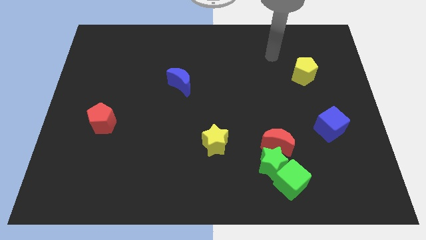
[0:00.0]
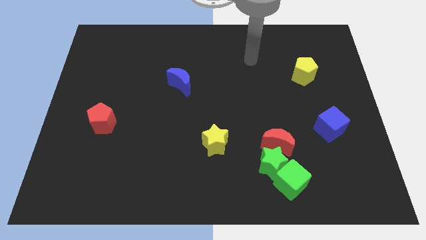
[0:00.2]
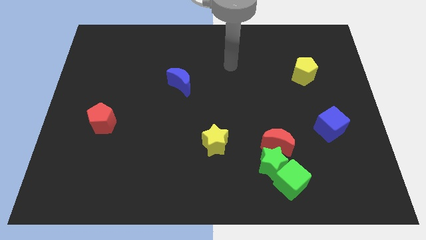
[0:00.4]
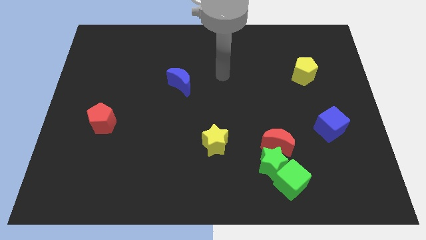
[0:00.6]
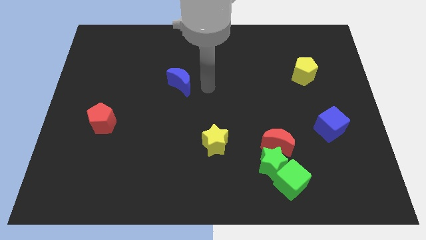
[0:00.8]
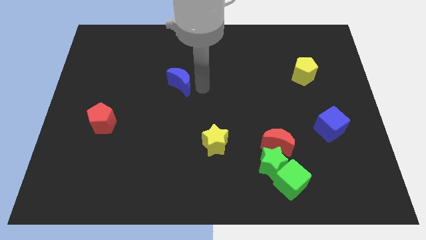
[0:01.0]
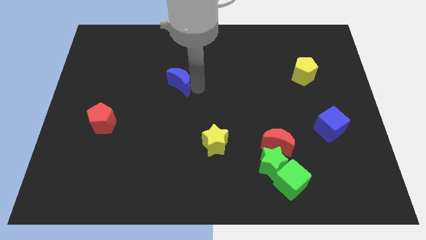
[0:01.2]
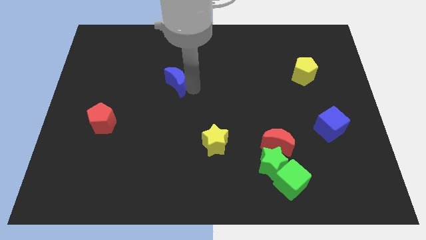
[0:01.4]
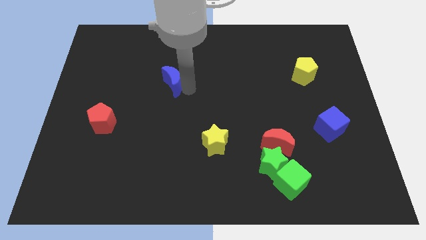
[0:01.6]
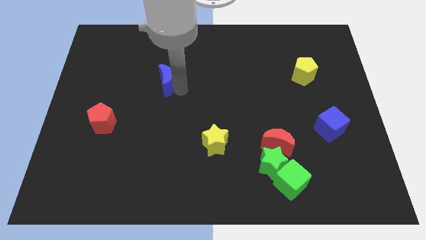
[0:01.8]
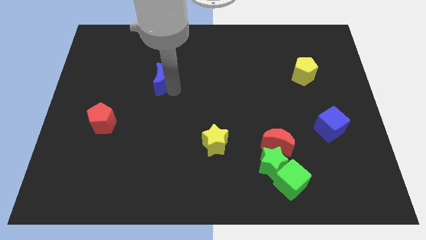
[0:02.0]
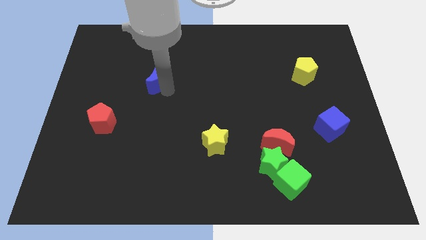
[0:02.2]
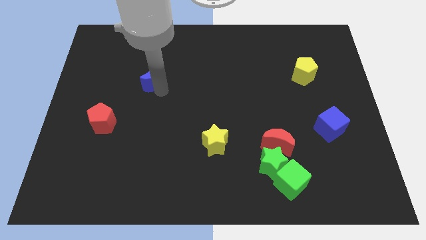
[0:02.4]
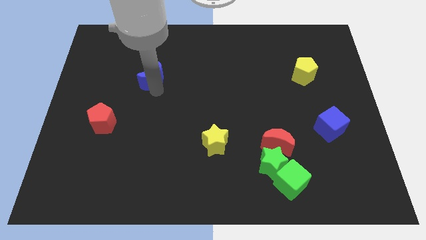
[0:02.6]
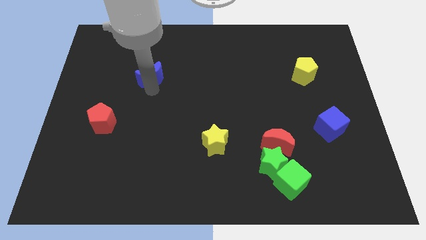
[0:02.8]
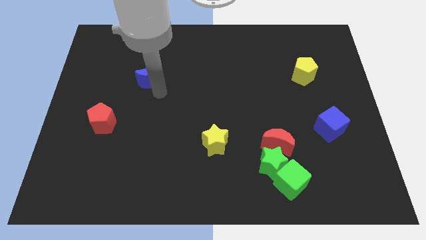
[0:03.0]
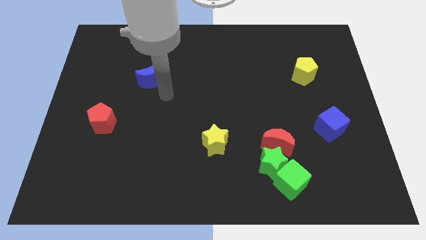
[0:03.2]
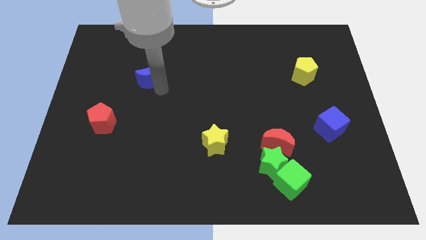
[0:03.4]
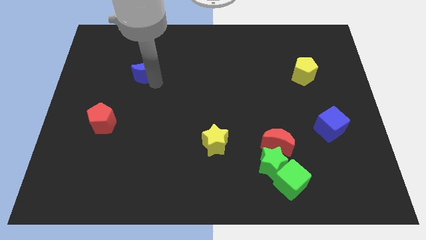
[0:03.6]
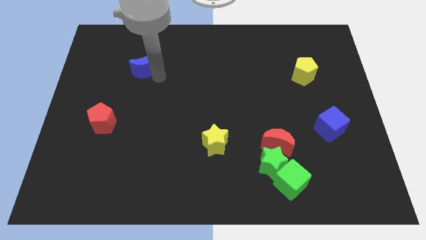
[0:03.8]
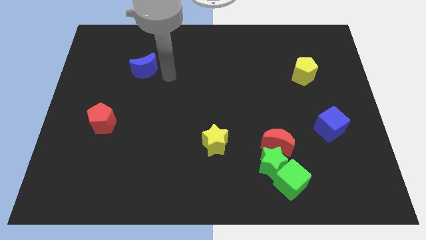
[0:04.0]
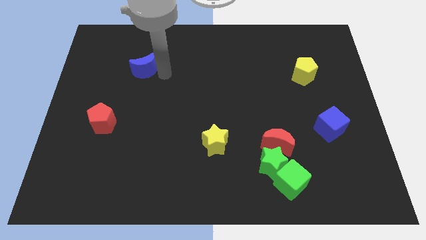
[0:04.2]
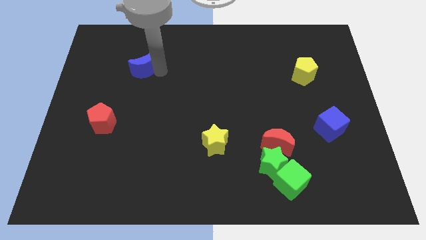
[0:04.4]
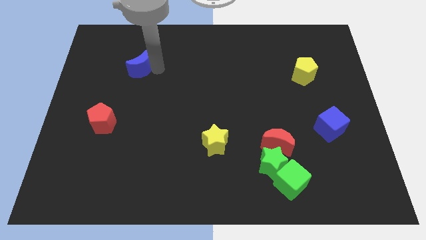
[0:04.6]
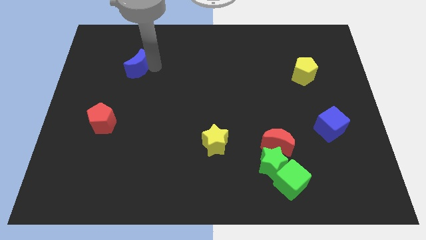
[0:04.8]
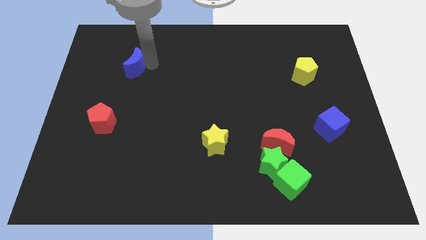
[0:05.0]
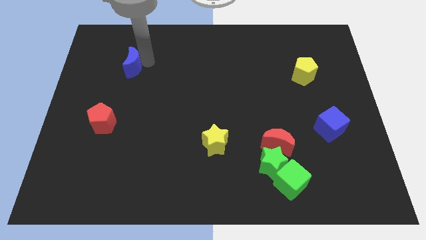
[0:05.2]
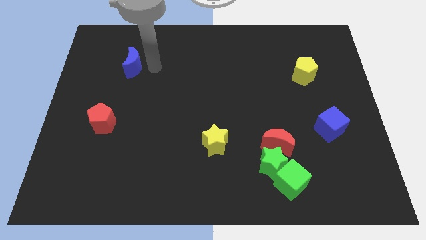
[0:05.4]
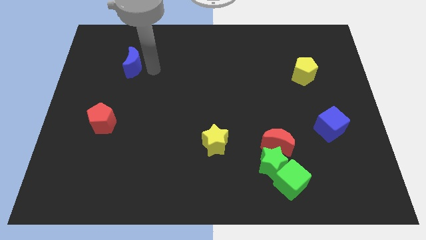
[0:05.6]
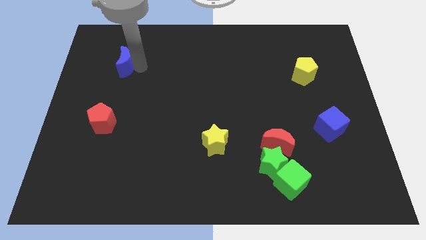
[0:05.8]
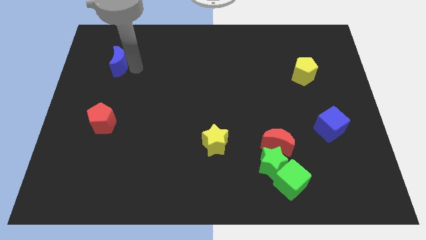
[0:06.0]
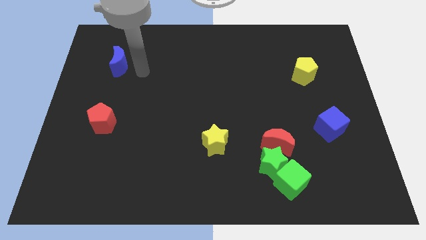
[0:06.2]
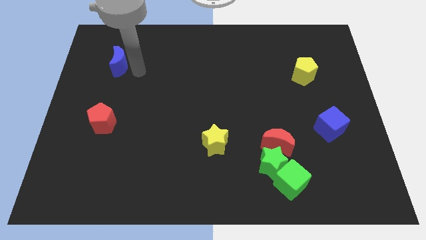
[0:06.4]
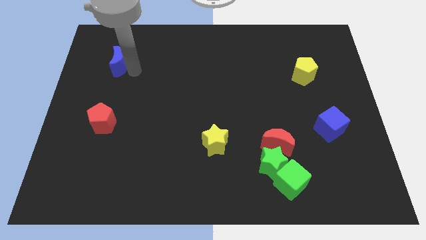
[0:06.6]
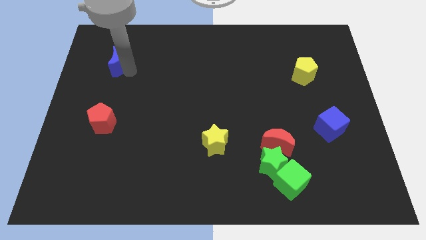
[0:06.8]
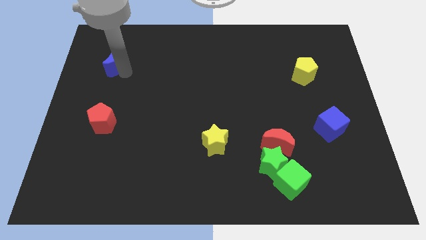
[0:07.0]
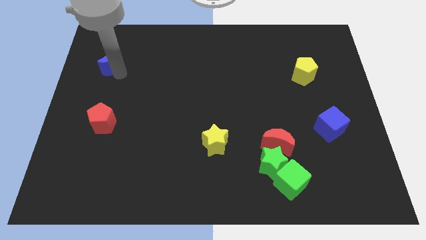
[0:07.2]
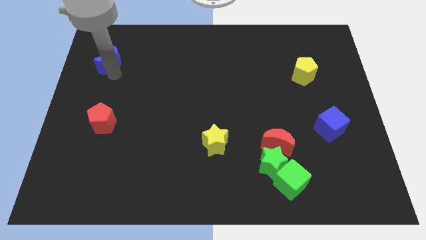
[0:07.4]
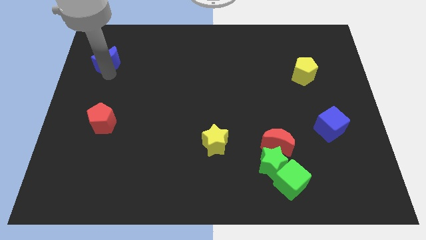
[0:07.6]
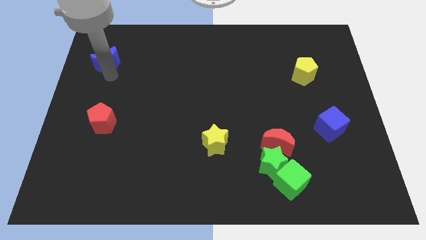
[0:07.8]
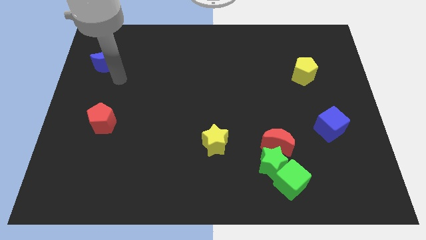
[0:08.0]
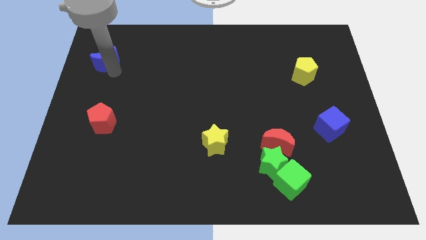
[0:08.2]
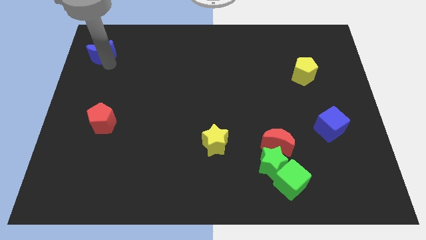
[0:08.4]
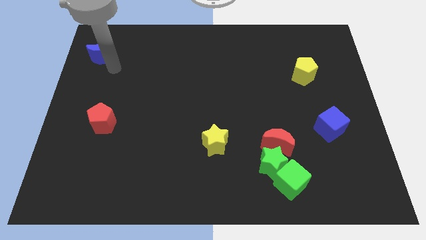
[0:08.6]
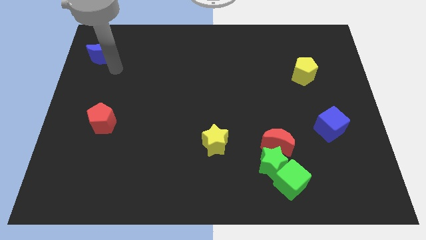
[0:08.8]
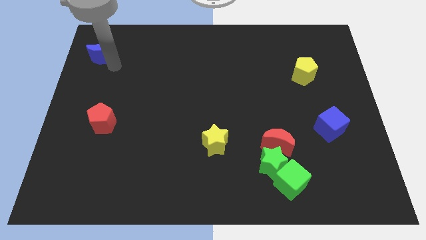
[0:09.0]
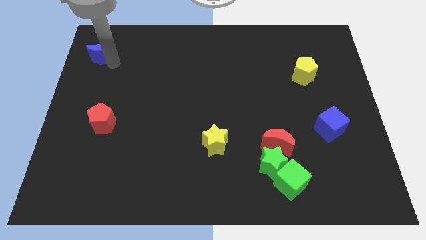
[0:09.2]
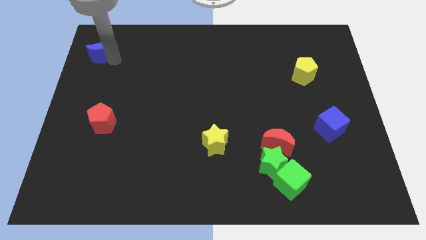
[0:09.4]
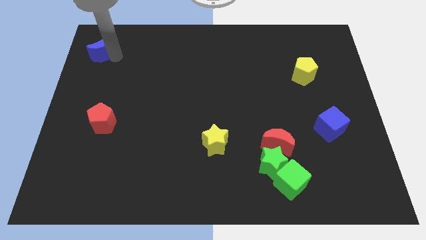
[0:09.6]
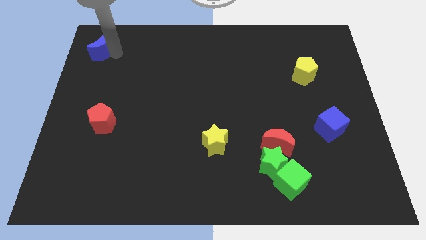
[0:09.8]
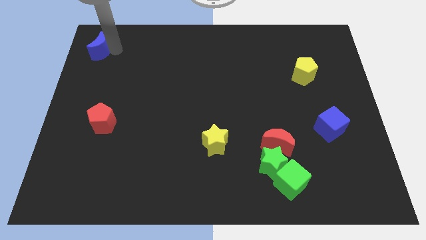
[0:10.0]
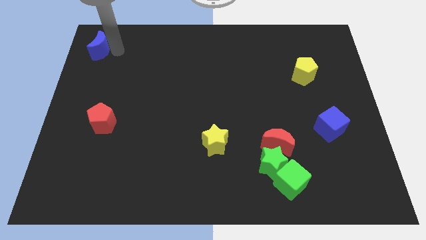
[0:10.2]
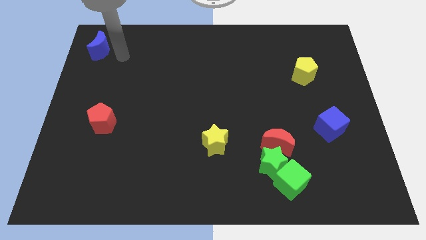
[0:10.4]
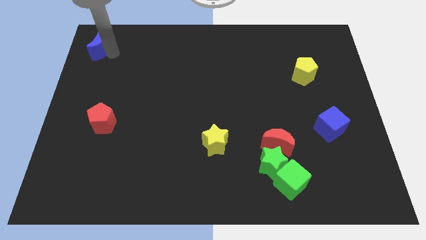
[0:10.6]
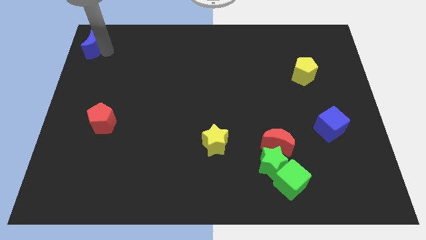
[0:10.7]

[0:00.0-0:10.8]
slide the blue moon to the top left of the board

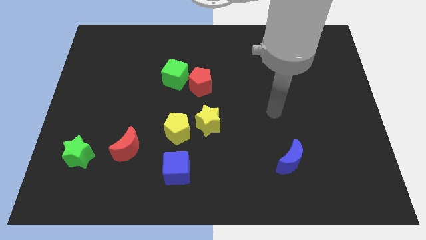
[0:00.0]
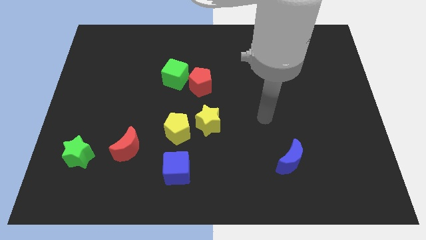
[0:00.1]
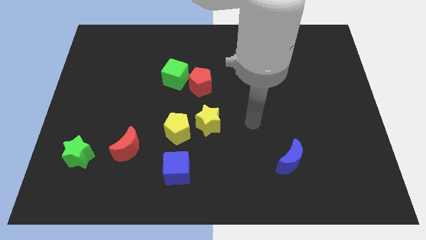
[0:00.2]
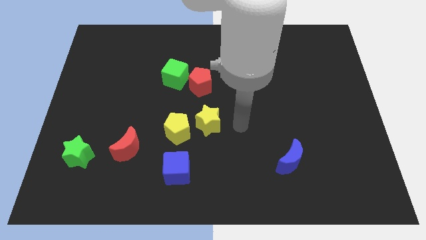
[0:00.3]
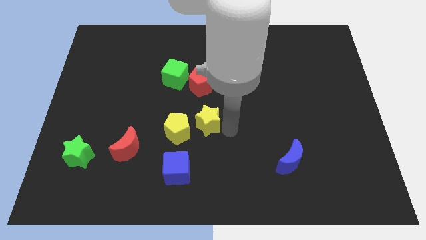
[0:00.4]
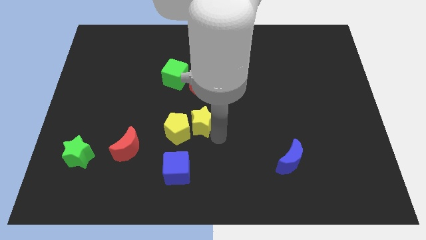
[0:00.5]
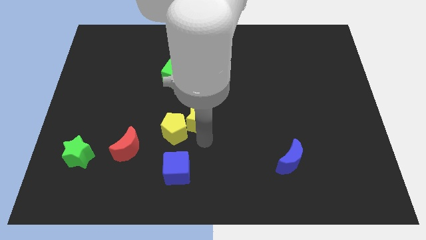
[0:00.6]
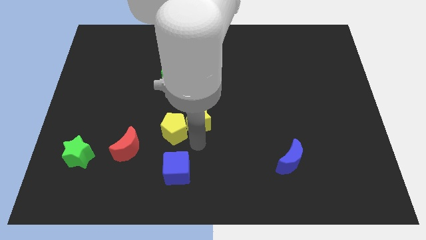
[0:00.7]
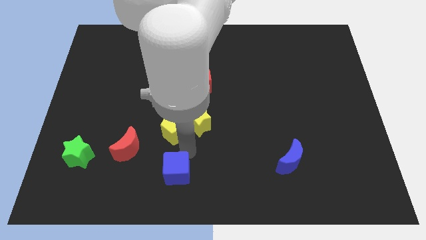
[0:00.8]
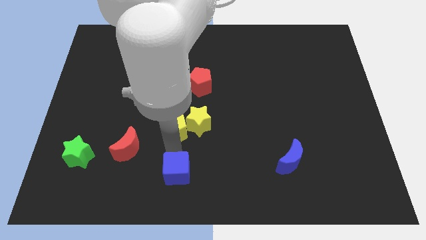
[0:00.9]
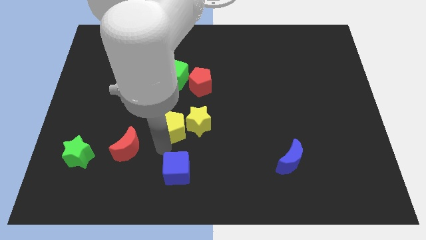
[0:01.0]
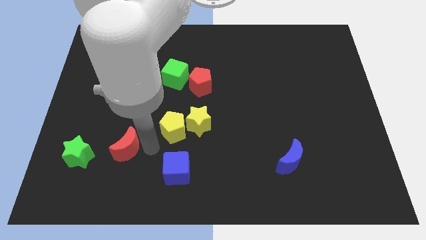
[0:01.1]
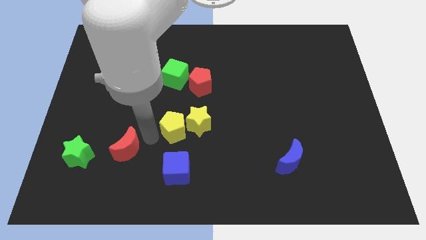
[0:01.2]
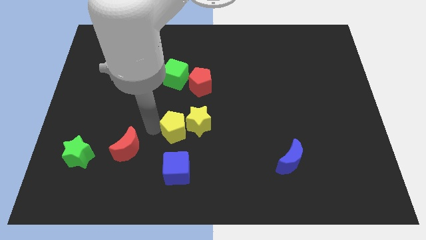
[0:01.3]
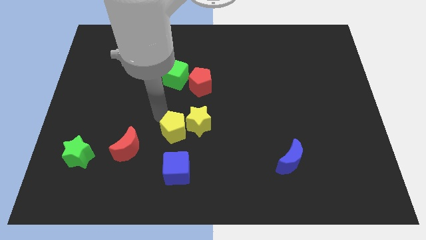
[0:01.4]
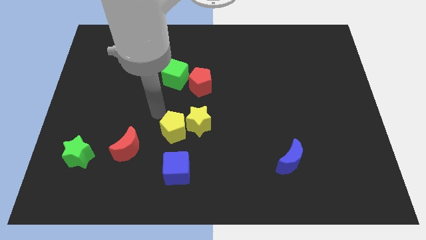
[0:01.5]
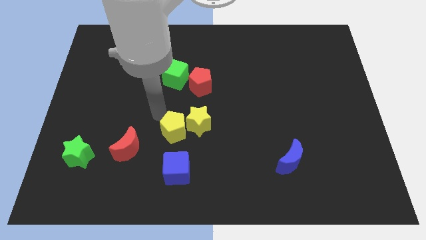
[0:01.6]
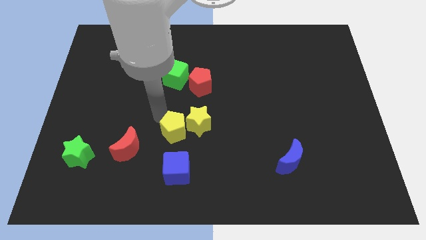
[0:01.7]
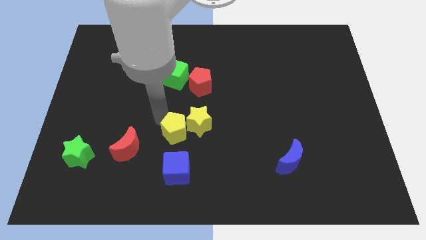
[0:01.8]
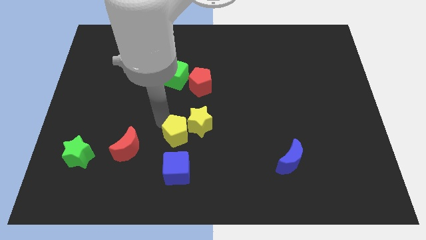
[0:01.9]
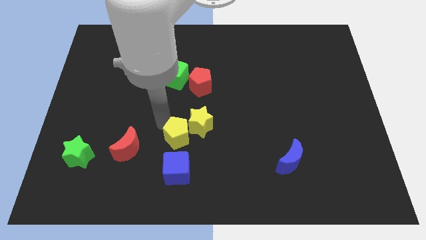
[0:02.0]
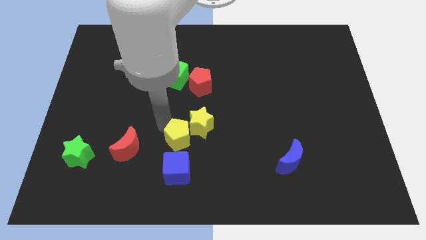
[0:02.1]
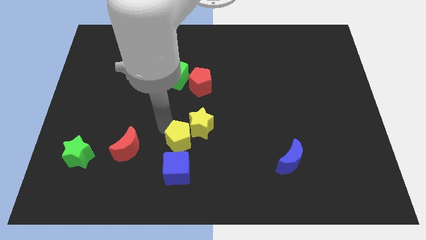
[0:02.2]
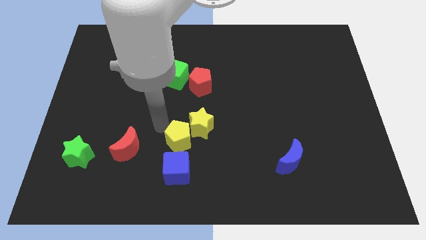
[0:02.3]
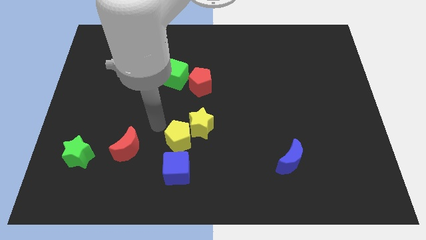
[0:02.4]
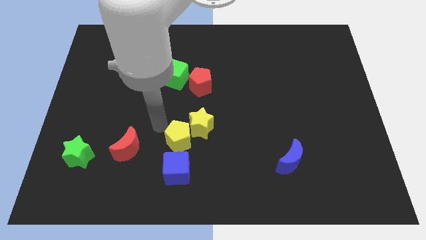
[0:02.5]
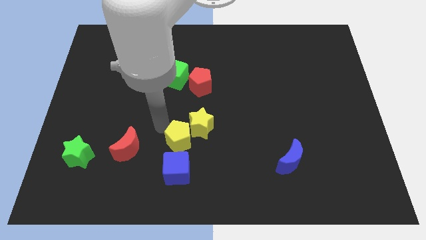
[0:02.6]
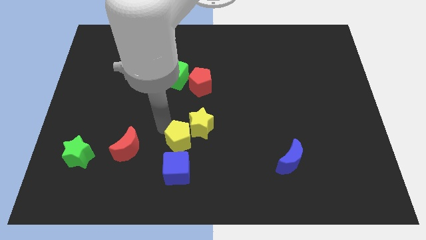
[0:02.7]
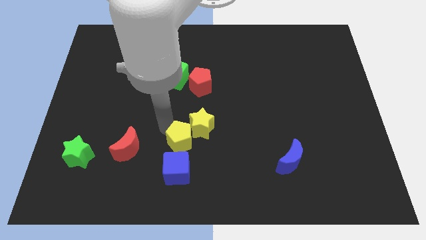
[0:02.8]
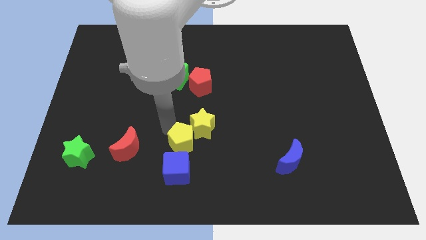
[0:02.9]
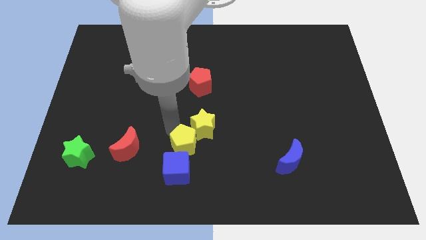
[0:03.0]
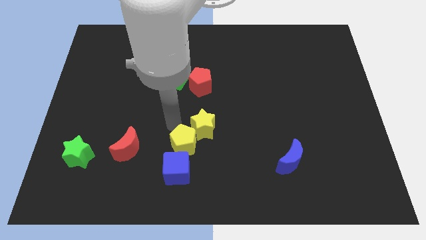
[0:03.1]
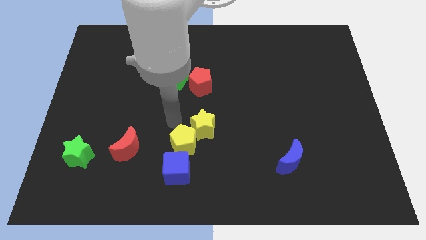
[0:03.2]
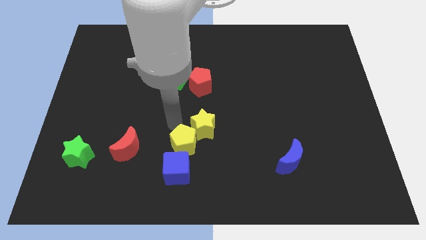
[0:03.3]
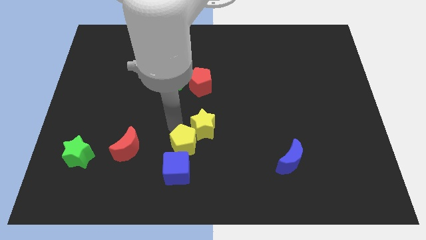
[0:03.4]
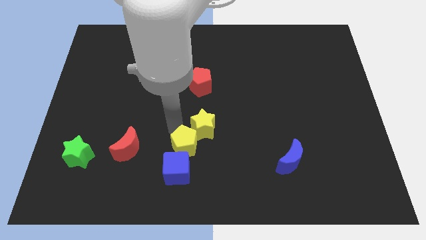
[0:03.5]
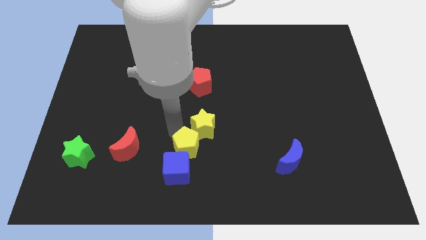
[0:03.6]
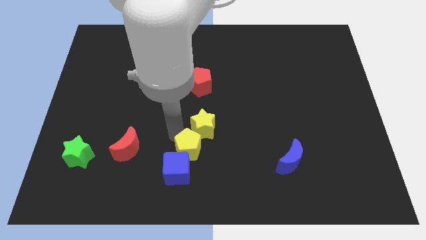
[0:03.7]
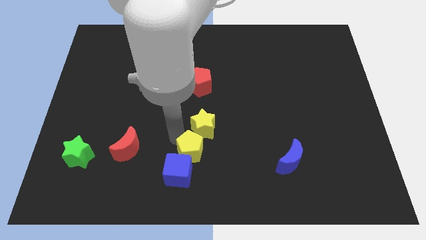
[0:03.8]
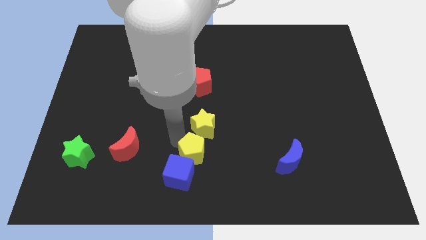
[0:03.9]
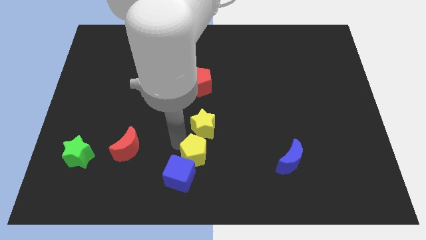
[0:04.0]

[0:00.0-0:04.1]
move the yellow pentagon to the bottom side
